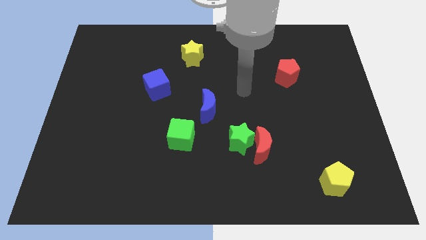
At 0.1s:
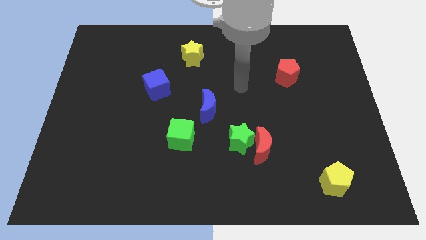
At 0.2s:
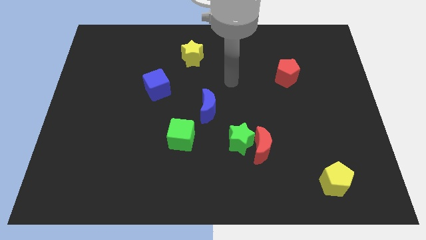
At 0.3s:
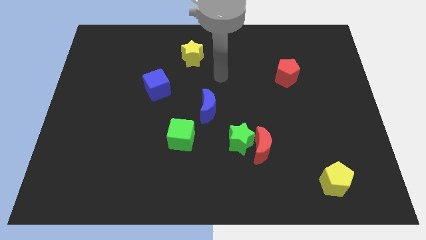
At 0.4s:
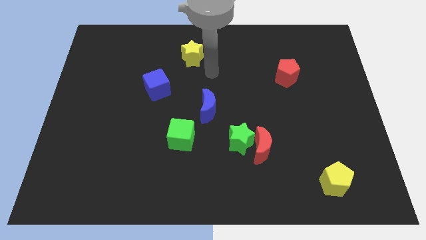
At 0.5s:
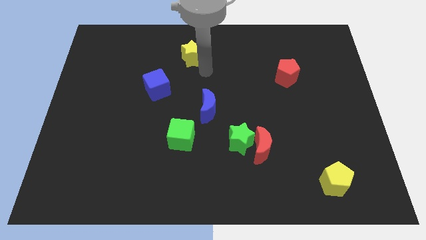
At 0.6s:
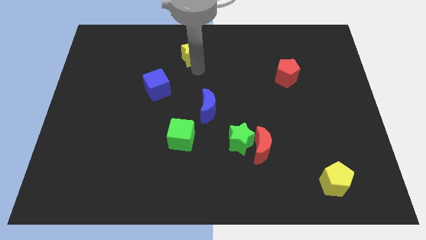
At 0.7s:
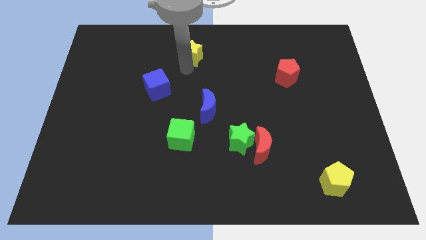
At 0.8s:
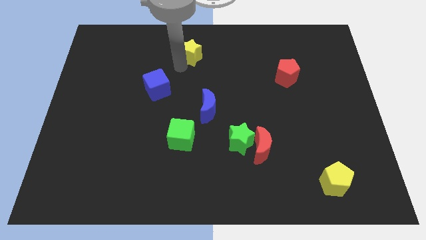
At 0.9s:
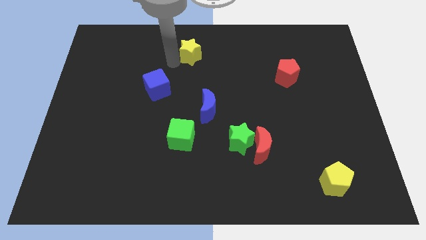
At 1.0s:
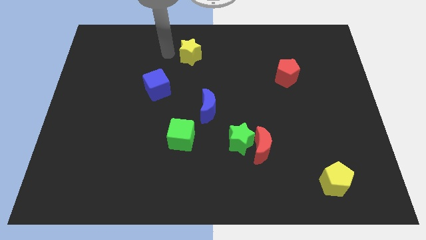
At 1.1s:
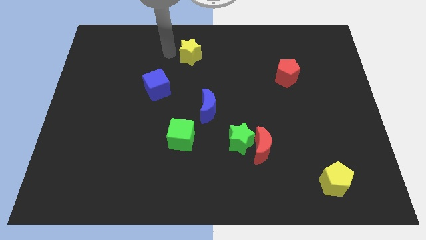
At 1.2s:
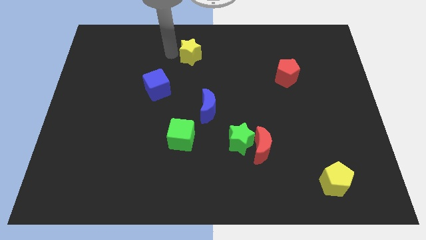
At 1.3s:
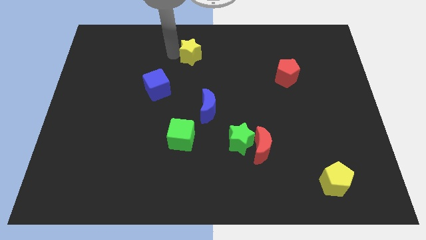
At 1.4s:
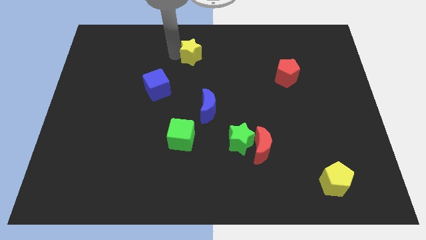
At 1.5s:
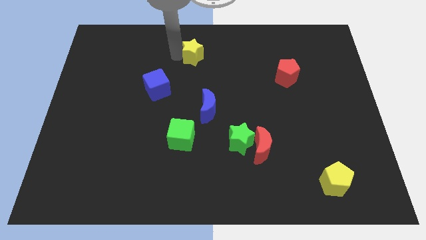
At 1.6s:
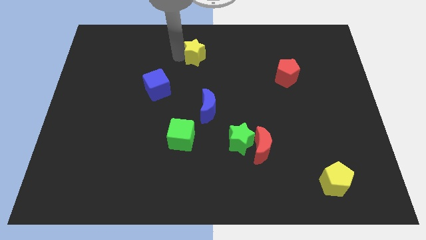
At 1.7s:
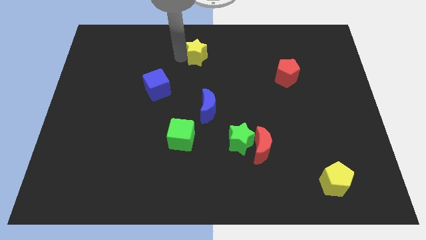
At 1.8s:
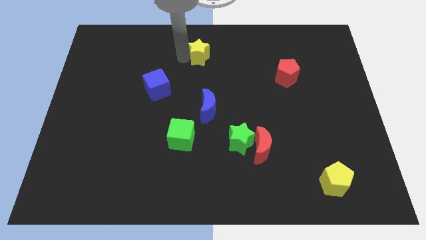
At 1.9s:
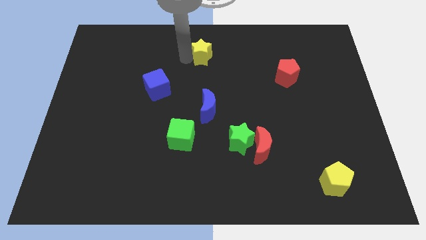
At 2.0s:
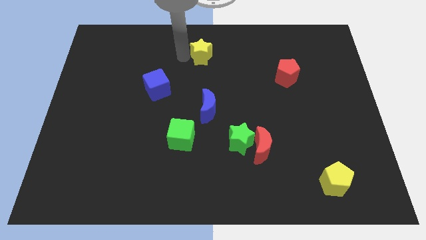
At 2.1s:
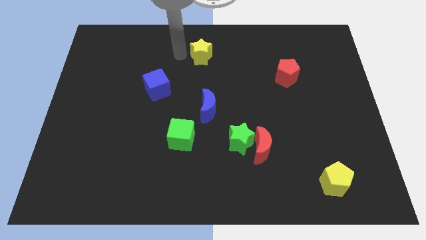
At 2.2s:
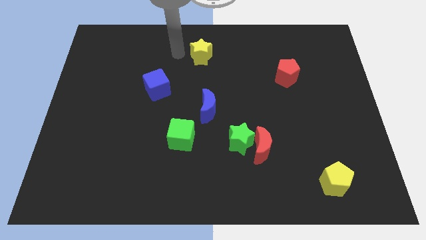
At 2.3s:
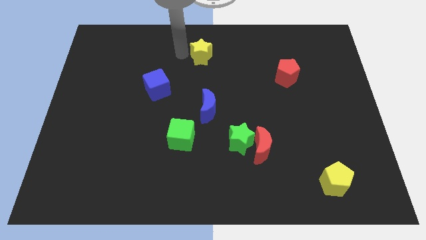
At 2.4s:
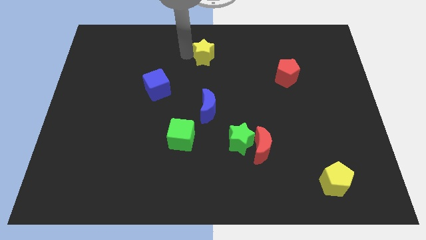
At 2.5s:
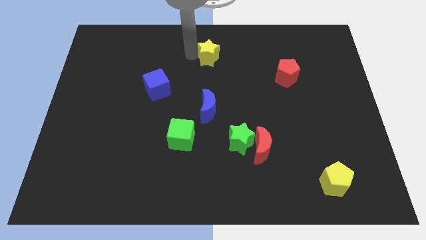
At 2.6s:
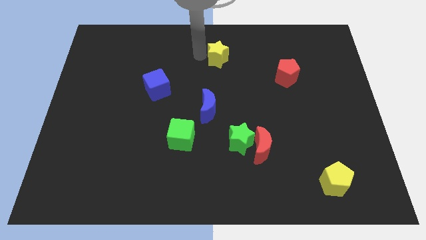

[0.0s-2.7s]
slightly move the yellow star to the right

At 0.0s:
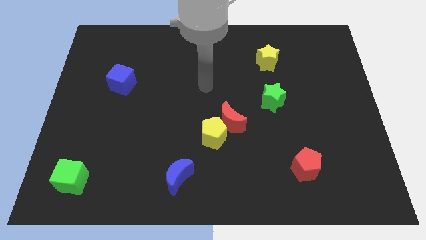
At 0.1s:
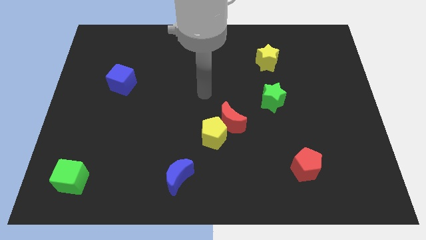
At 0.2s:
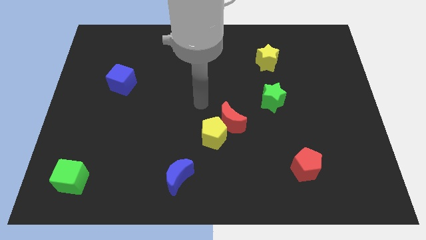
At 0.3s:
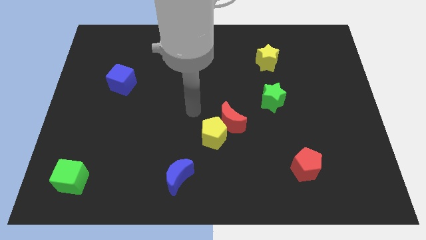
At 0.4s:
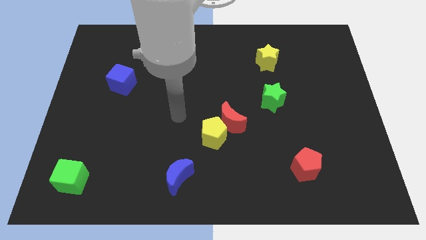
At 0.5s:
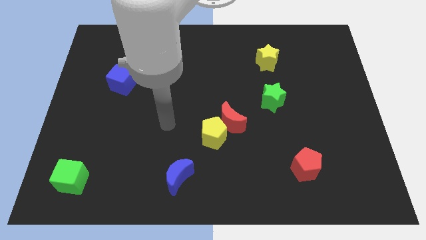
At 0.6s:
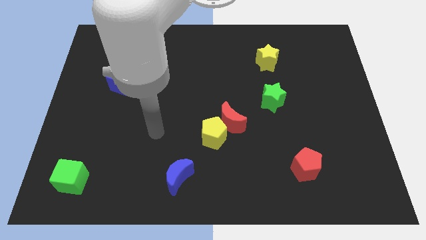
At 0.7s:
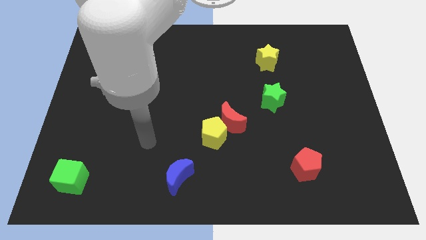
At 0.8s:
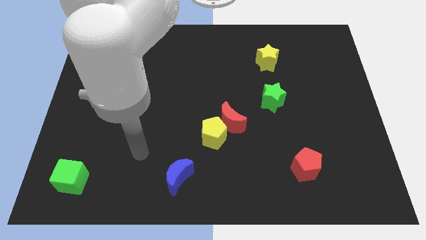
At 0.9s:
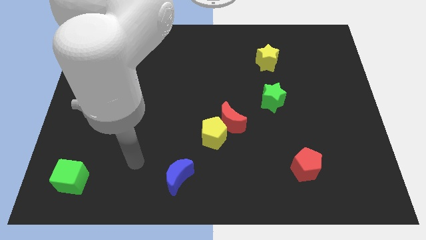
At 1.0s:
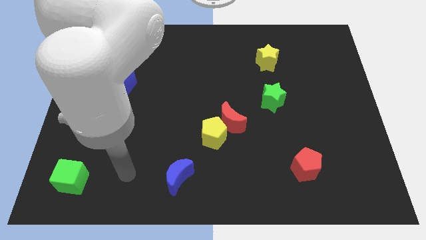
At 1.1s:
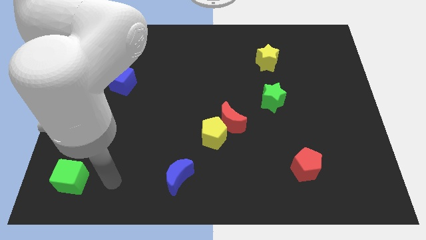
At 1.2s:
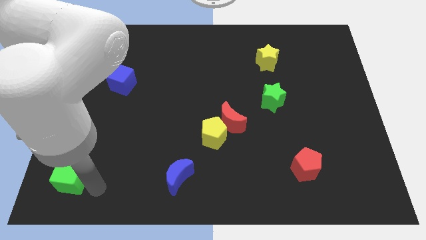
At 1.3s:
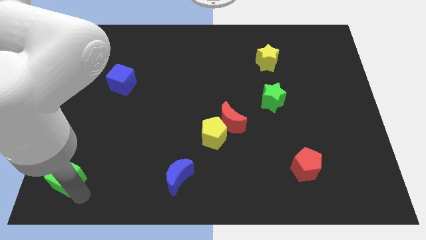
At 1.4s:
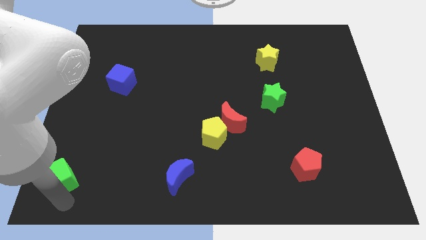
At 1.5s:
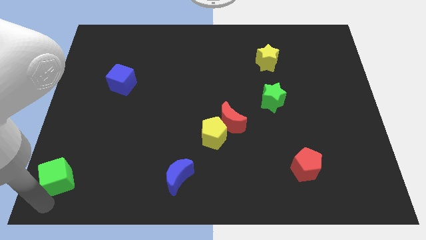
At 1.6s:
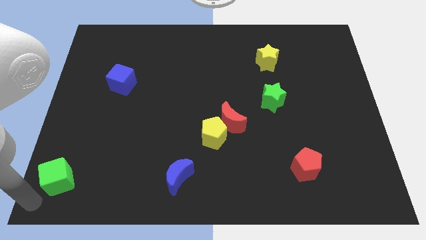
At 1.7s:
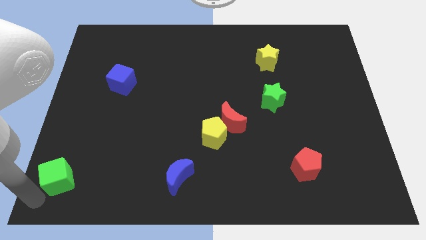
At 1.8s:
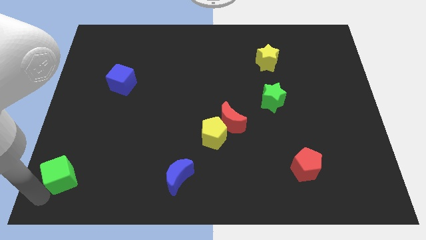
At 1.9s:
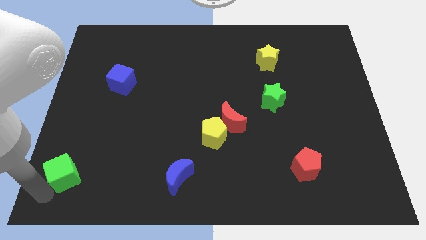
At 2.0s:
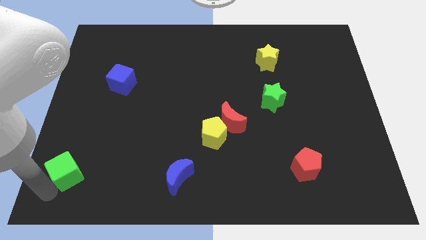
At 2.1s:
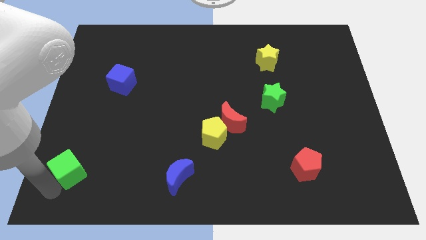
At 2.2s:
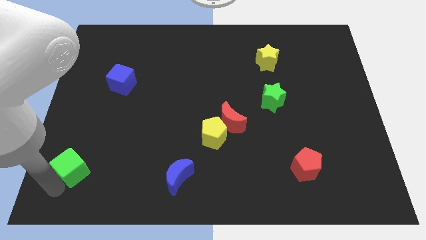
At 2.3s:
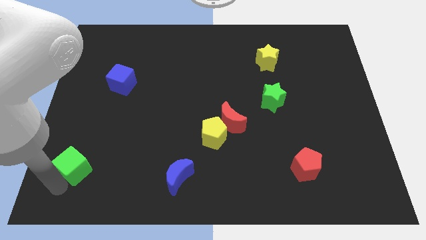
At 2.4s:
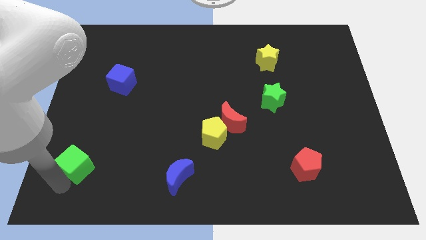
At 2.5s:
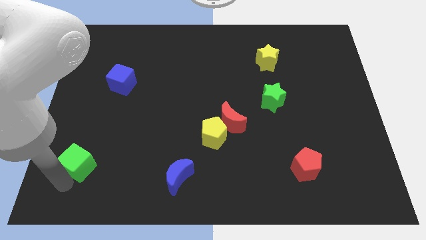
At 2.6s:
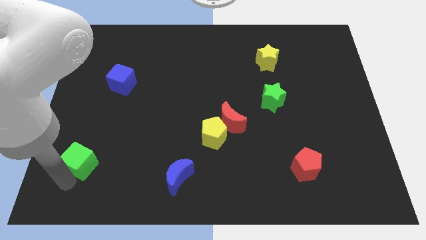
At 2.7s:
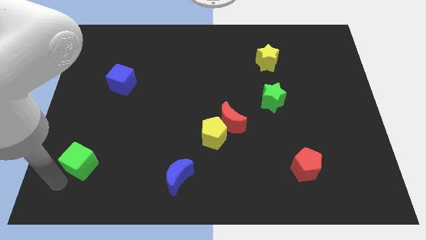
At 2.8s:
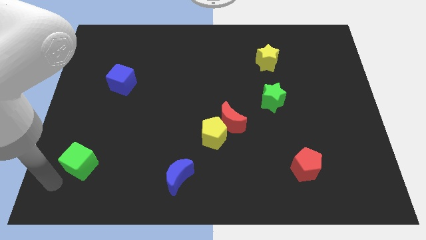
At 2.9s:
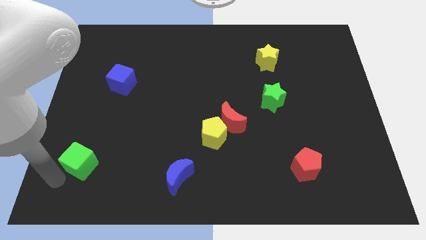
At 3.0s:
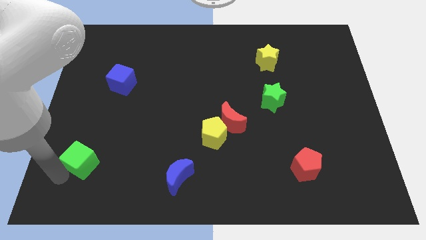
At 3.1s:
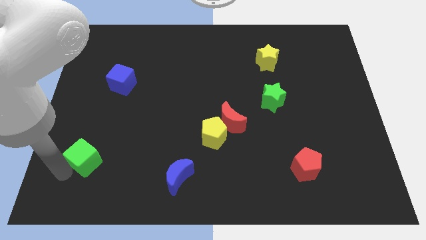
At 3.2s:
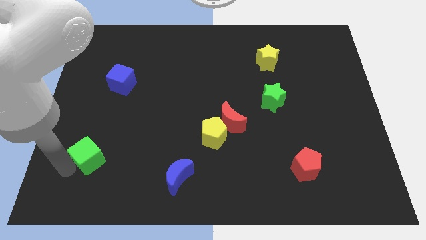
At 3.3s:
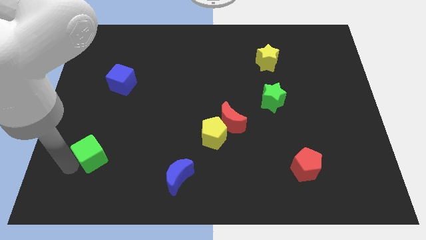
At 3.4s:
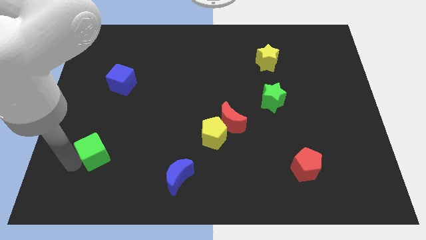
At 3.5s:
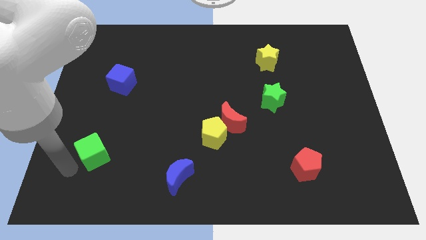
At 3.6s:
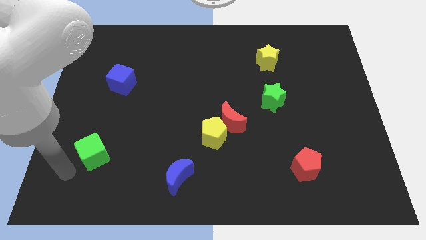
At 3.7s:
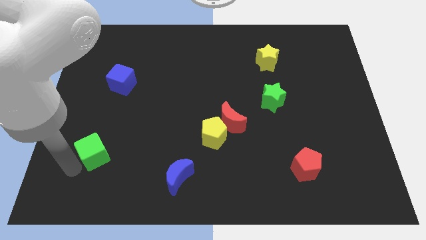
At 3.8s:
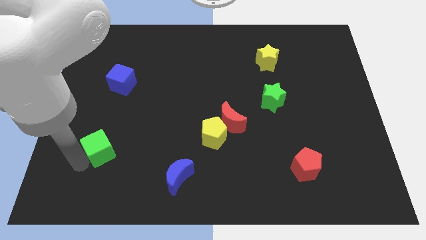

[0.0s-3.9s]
slide the green cube up and then to the right a bit

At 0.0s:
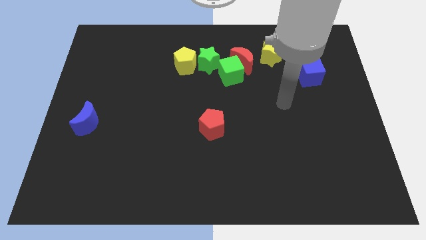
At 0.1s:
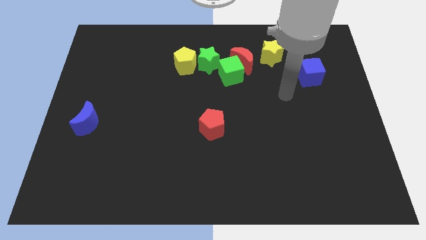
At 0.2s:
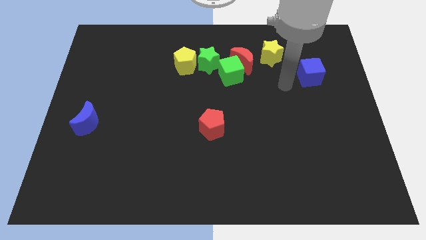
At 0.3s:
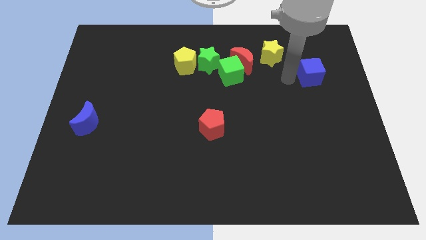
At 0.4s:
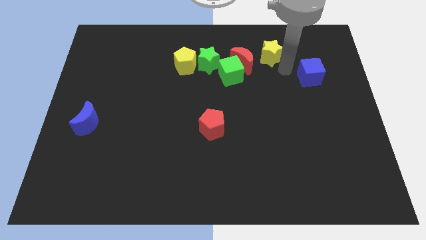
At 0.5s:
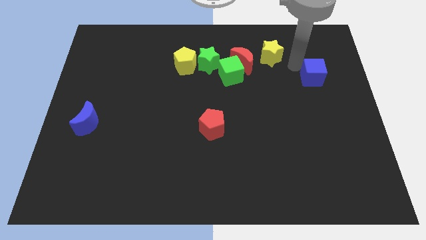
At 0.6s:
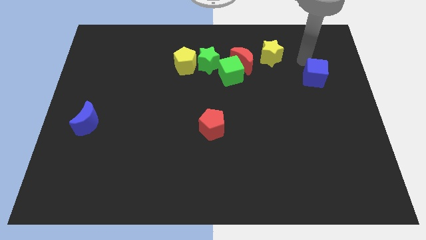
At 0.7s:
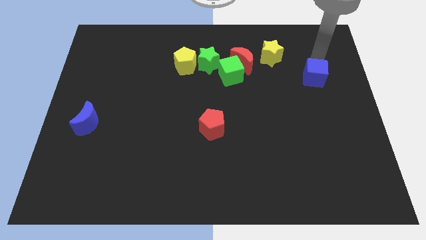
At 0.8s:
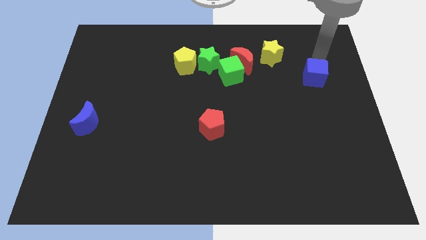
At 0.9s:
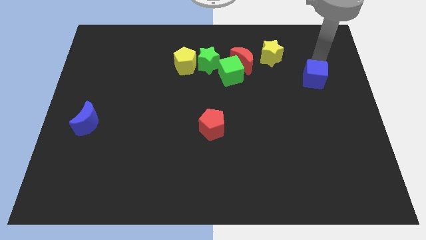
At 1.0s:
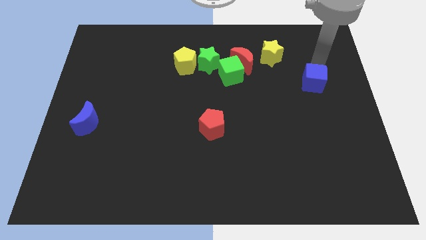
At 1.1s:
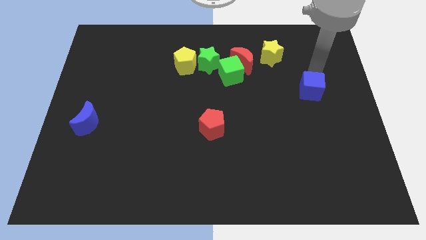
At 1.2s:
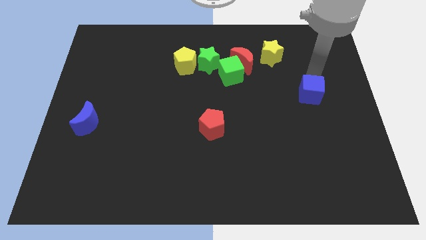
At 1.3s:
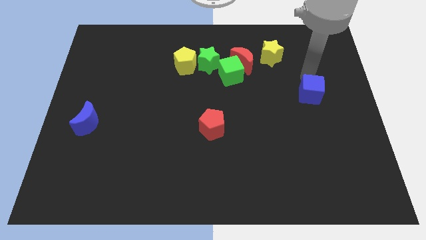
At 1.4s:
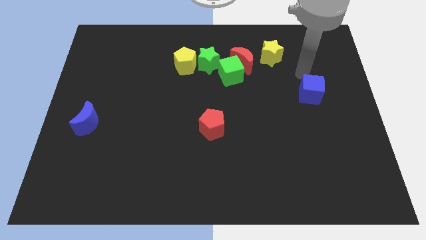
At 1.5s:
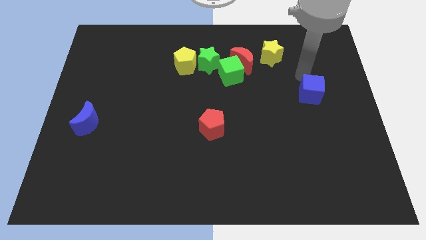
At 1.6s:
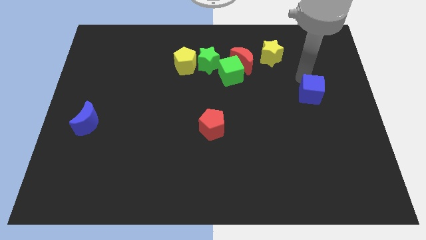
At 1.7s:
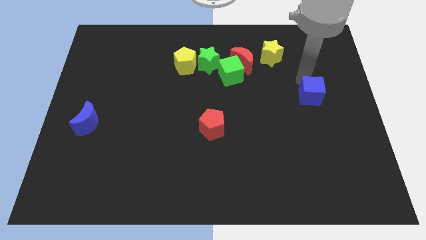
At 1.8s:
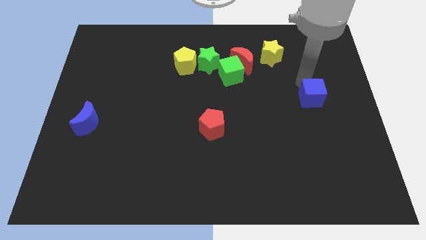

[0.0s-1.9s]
push the blue cube downwards slightly

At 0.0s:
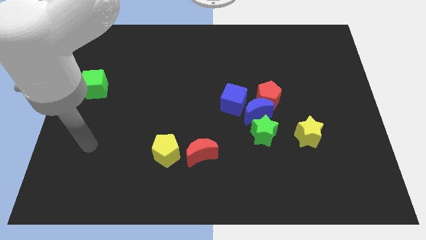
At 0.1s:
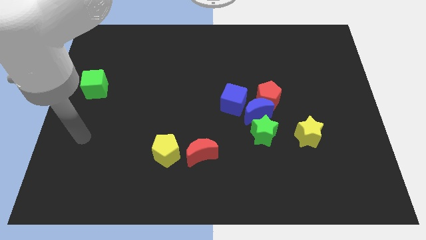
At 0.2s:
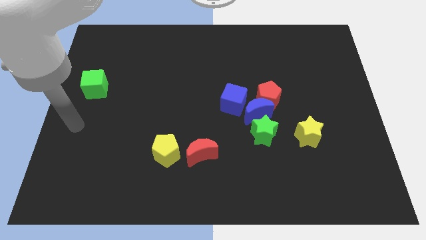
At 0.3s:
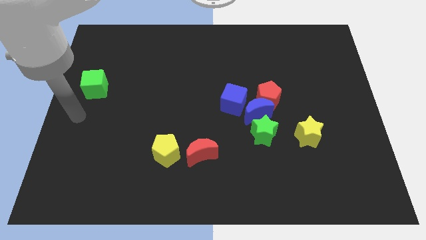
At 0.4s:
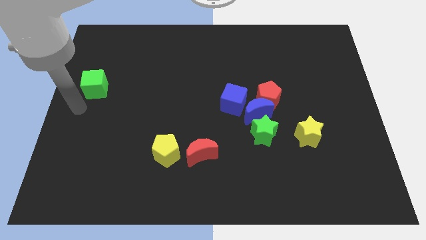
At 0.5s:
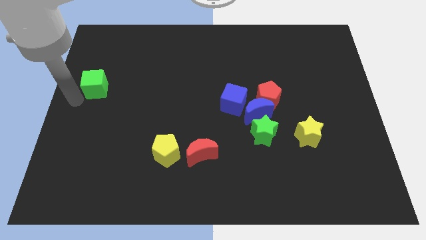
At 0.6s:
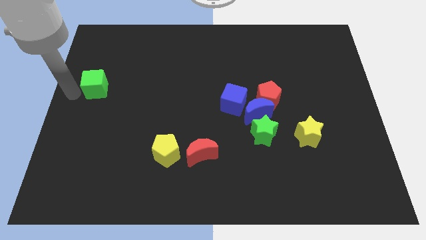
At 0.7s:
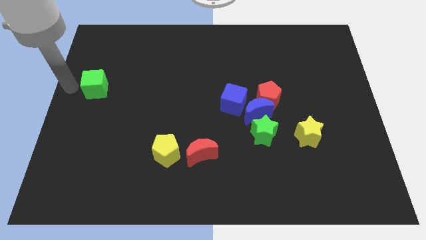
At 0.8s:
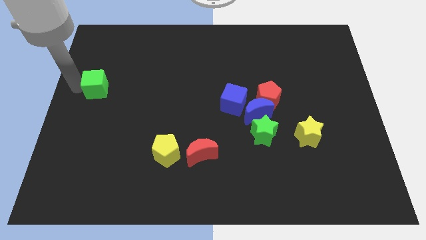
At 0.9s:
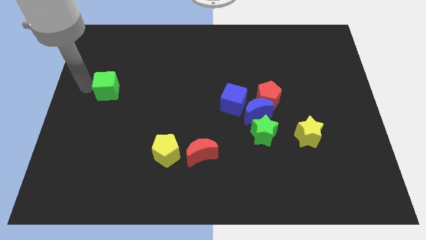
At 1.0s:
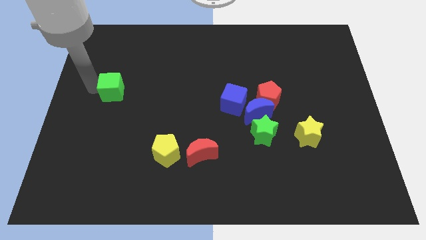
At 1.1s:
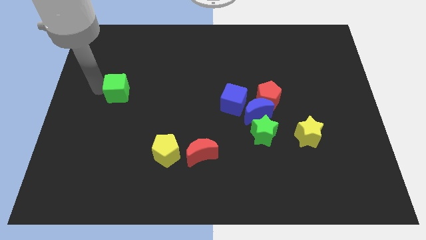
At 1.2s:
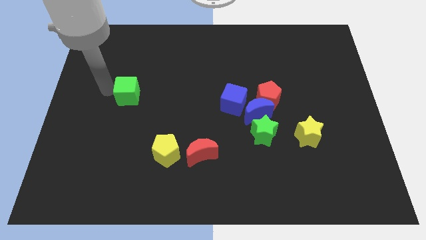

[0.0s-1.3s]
slightly push the green cube right
